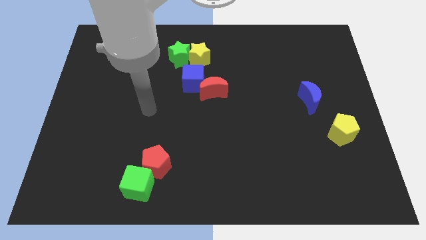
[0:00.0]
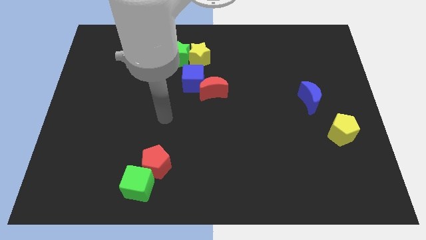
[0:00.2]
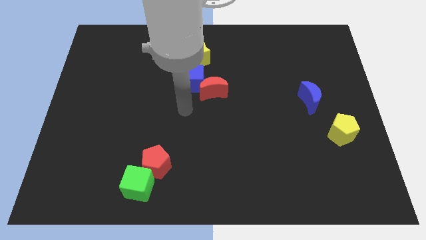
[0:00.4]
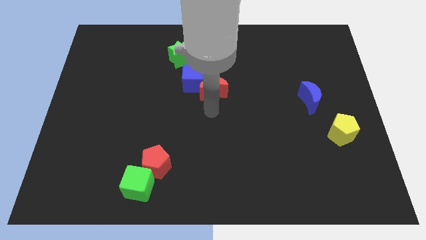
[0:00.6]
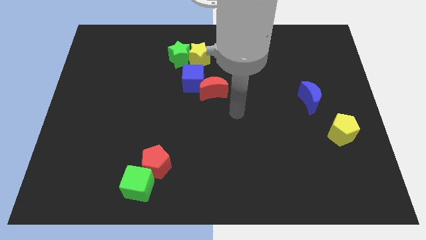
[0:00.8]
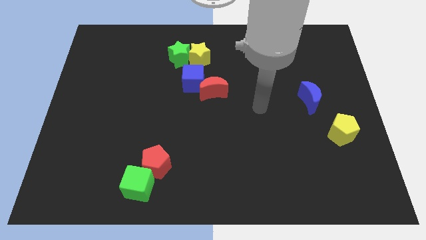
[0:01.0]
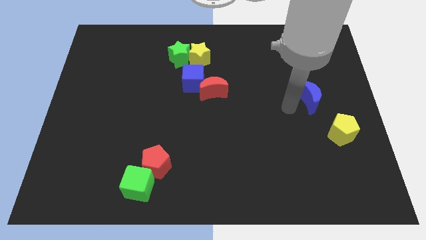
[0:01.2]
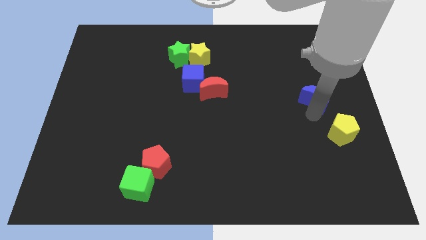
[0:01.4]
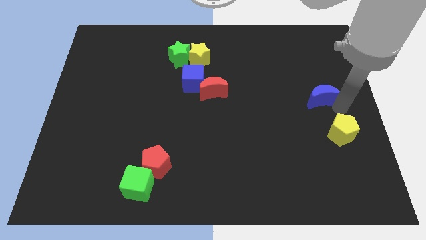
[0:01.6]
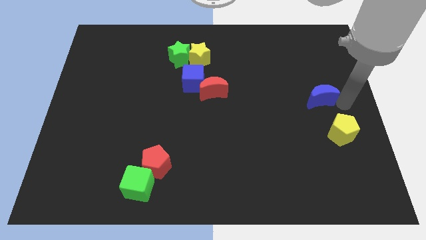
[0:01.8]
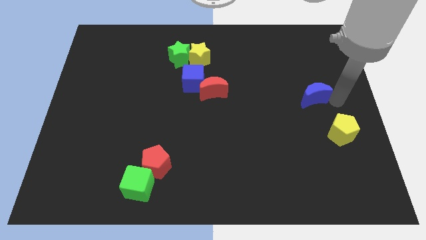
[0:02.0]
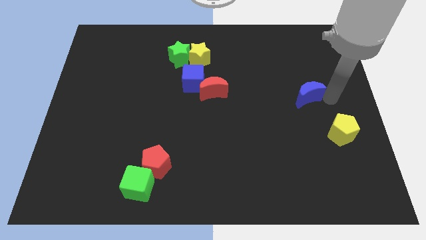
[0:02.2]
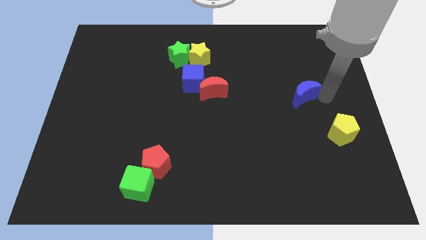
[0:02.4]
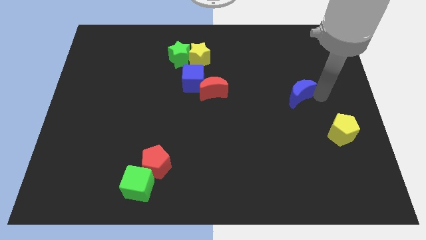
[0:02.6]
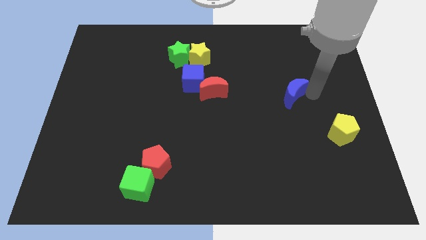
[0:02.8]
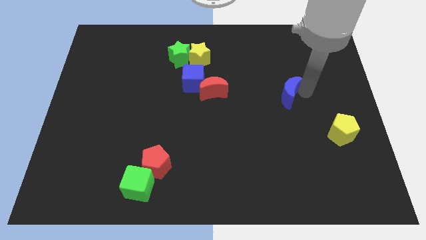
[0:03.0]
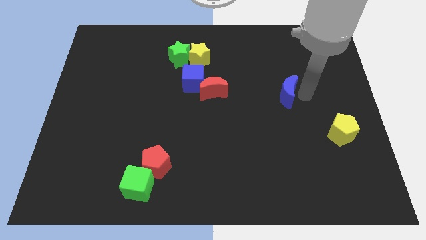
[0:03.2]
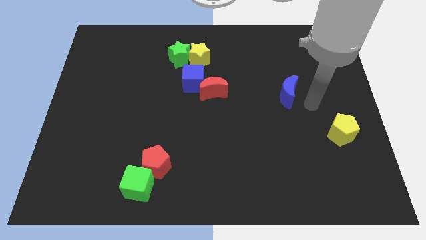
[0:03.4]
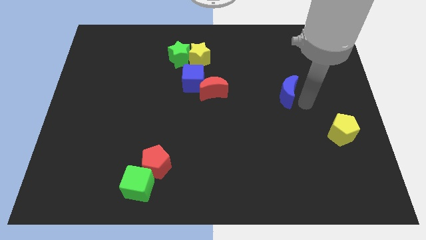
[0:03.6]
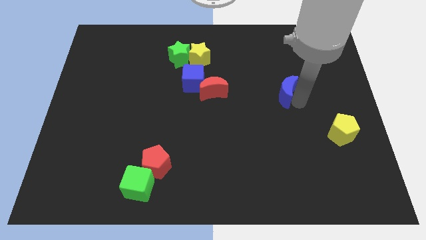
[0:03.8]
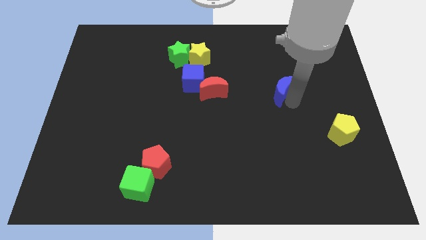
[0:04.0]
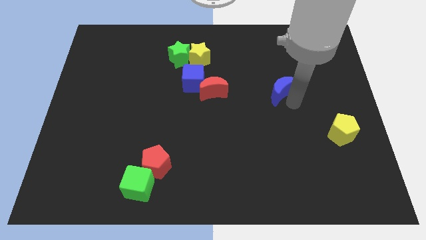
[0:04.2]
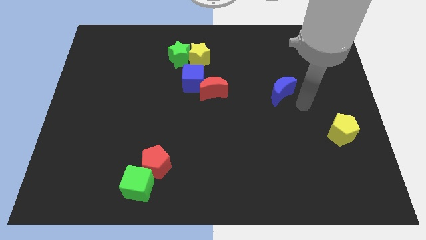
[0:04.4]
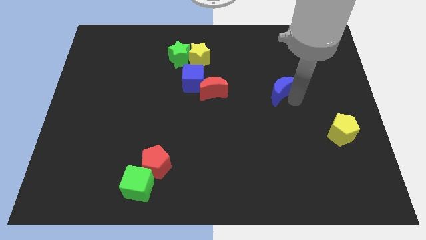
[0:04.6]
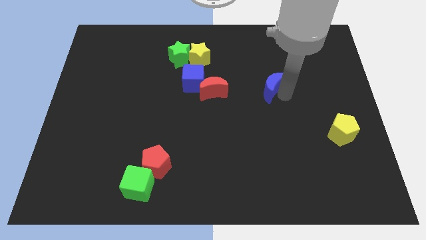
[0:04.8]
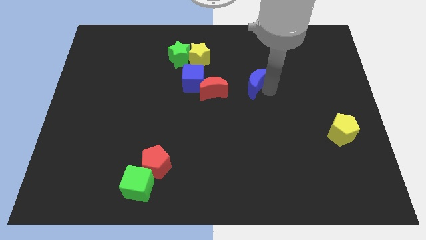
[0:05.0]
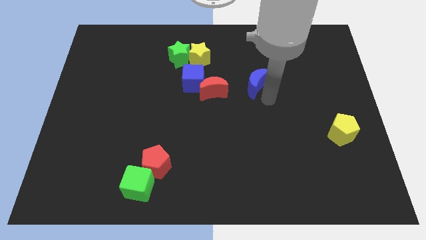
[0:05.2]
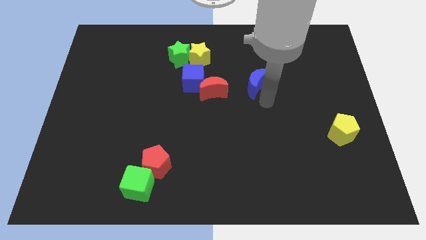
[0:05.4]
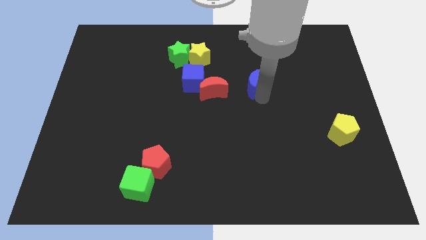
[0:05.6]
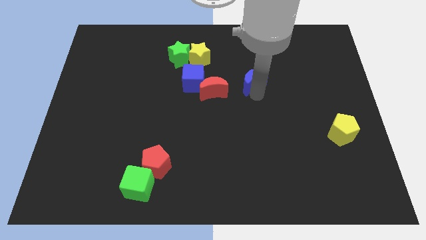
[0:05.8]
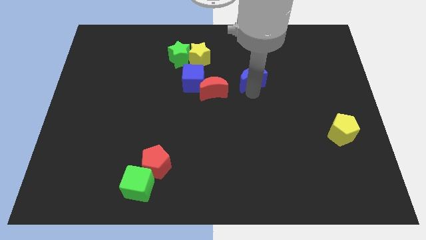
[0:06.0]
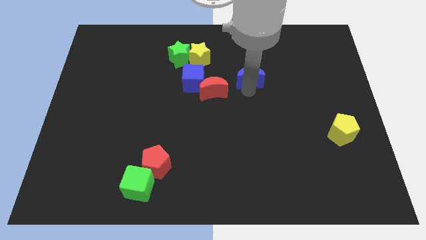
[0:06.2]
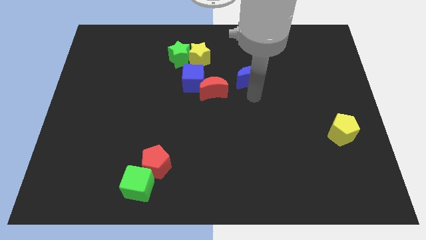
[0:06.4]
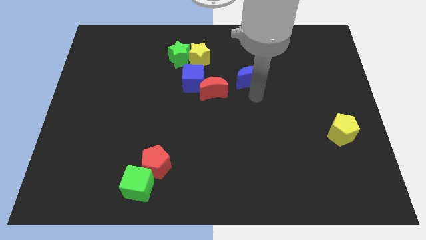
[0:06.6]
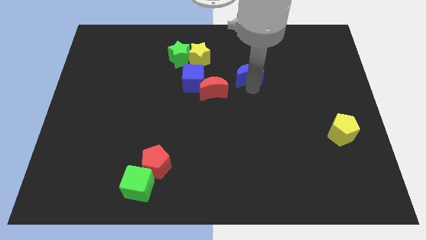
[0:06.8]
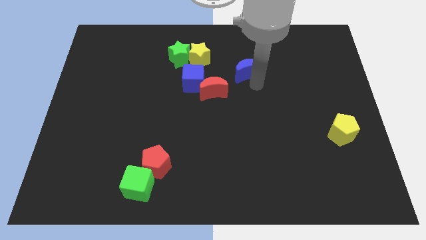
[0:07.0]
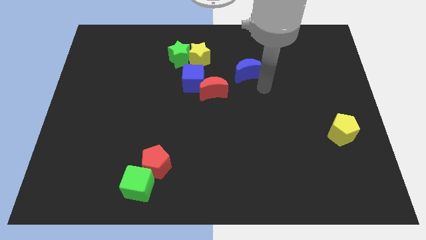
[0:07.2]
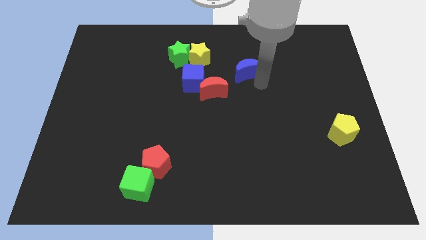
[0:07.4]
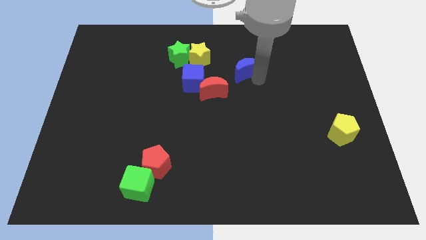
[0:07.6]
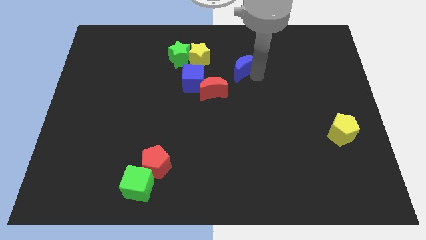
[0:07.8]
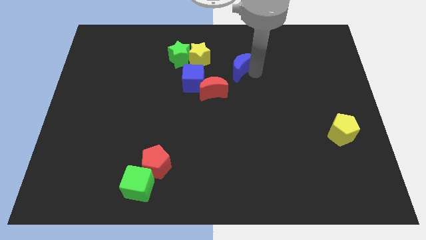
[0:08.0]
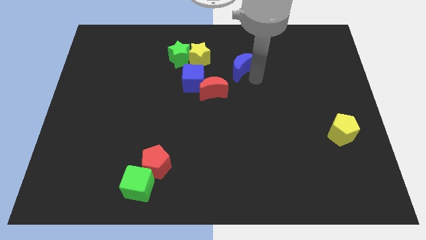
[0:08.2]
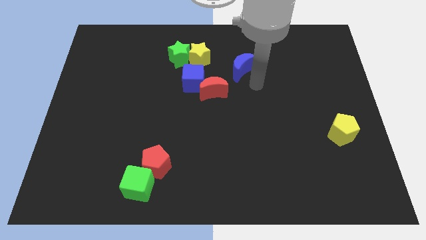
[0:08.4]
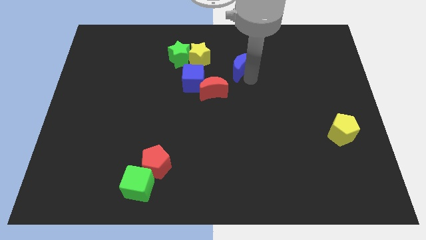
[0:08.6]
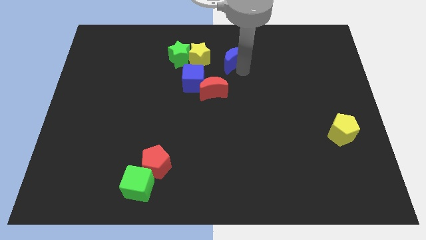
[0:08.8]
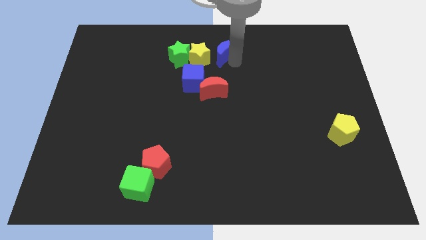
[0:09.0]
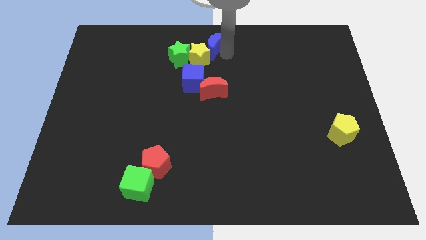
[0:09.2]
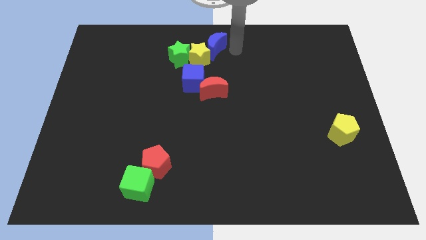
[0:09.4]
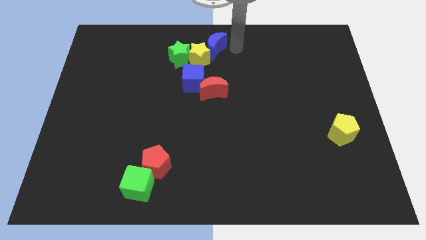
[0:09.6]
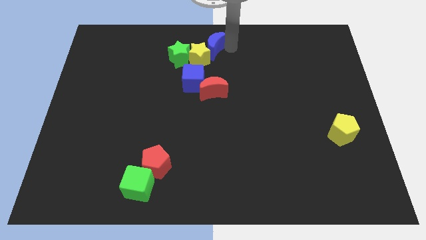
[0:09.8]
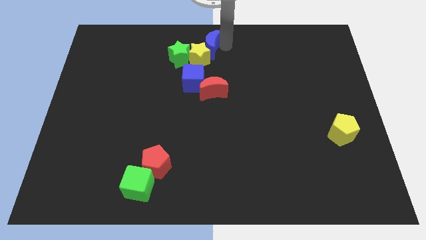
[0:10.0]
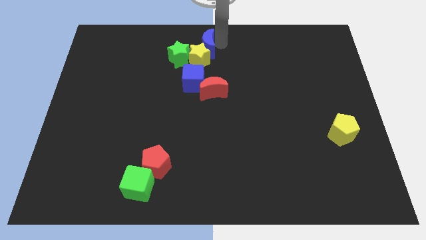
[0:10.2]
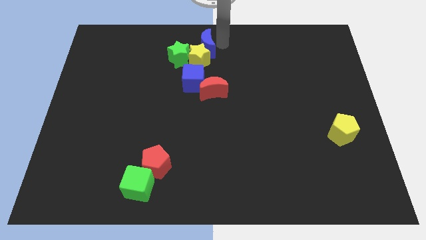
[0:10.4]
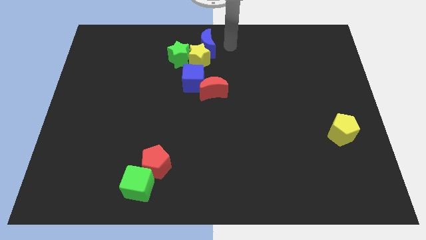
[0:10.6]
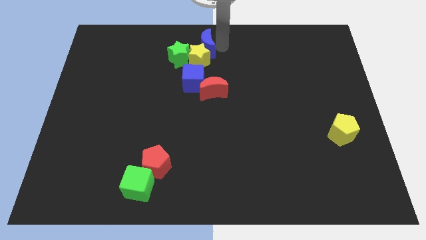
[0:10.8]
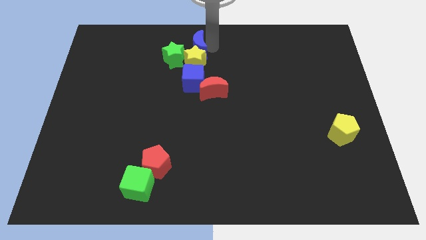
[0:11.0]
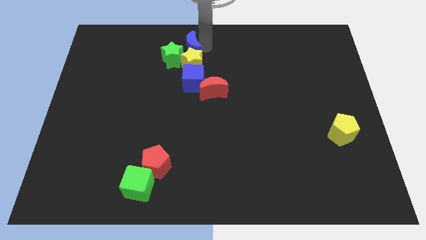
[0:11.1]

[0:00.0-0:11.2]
slide the blue moon next to the green star

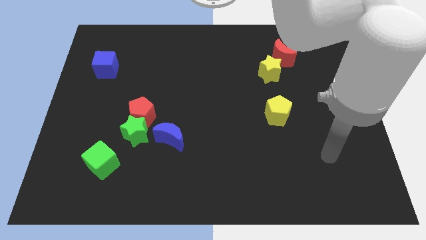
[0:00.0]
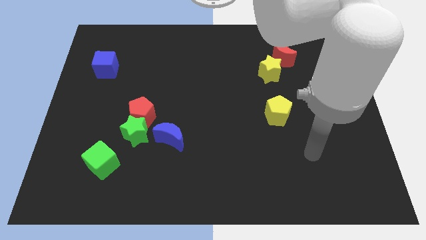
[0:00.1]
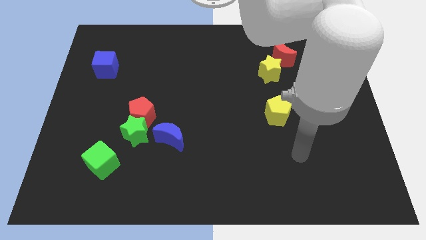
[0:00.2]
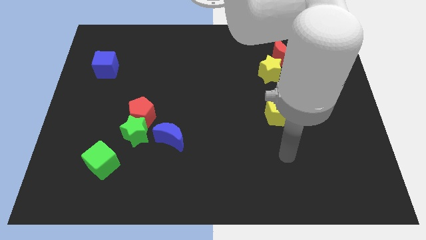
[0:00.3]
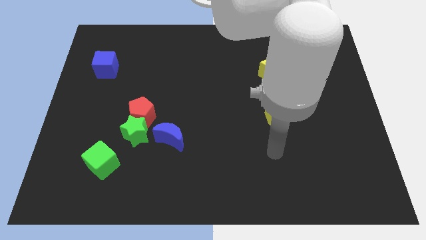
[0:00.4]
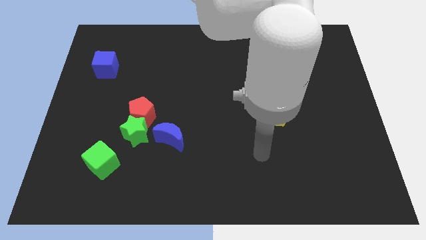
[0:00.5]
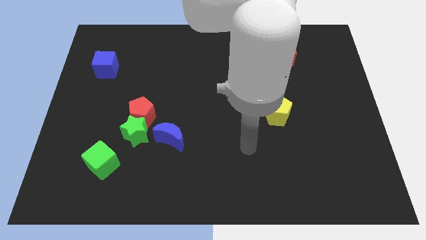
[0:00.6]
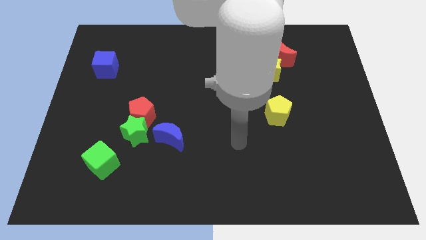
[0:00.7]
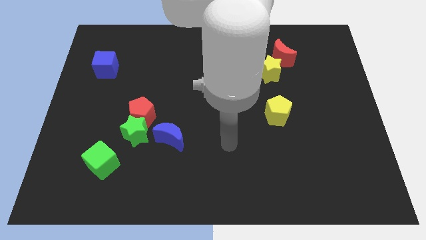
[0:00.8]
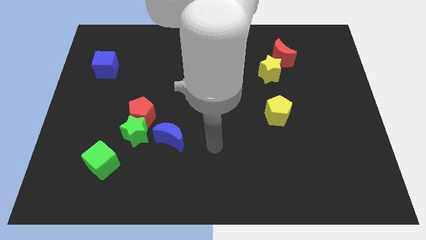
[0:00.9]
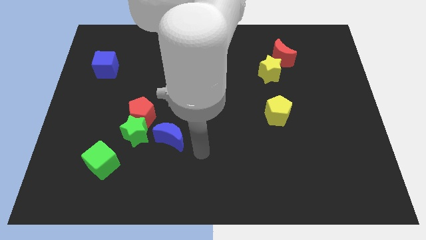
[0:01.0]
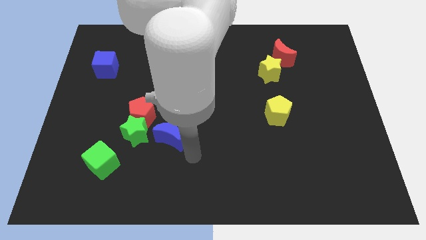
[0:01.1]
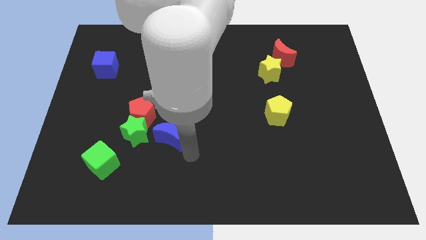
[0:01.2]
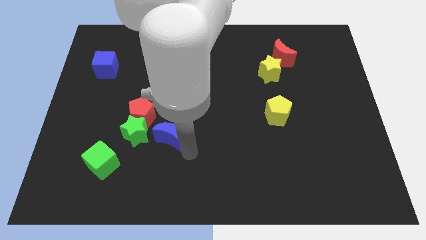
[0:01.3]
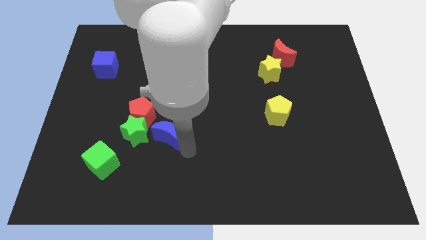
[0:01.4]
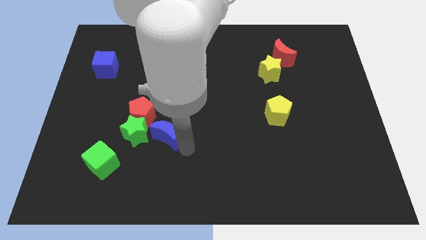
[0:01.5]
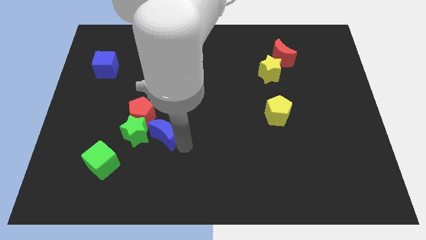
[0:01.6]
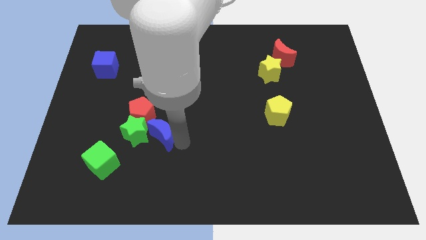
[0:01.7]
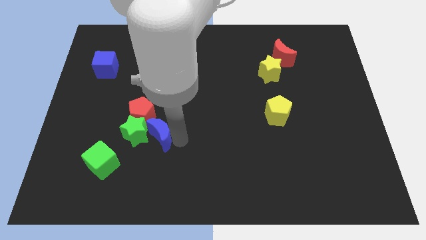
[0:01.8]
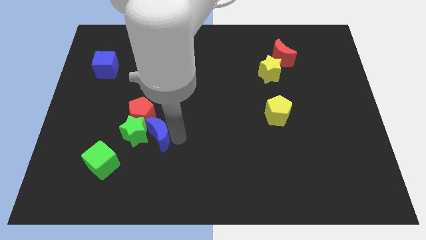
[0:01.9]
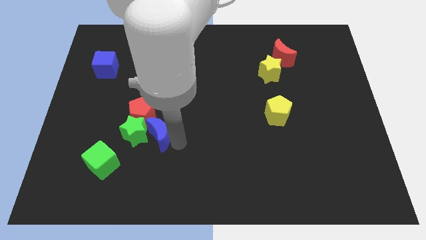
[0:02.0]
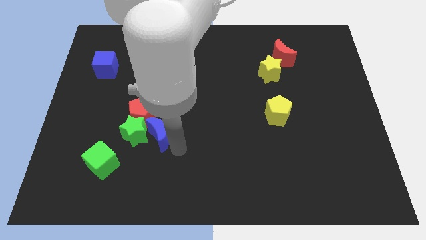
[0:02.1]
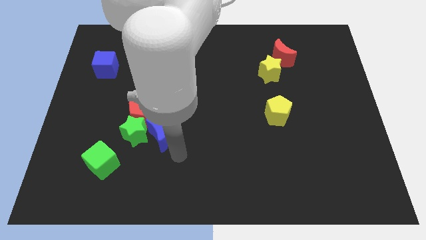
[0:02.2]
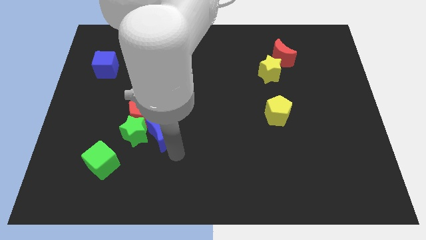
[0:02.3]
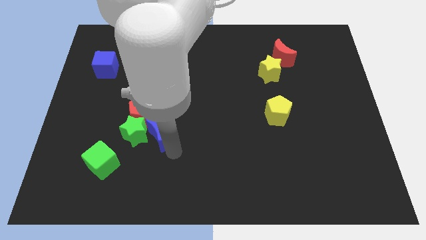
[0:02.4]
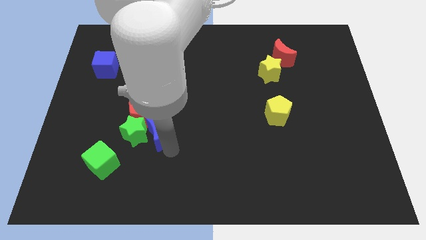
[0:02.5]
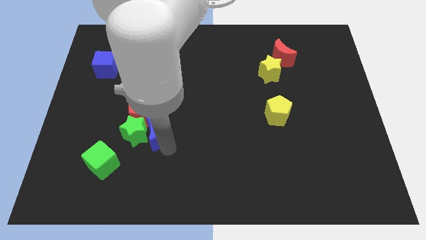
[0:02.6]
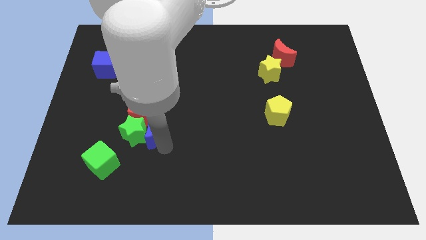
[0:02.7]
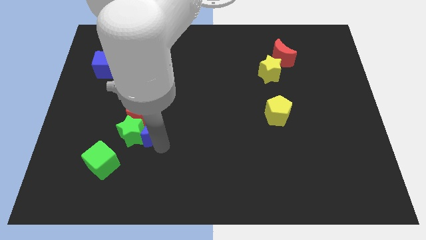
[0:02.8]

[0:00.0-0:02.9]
put the blue moon towards the red pentagon
